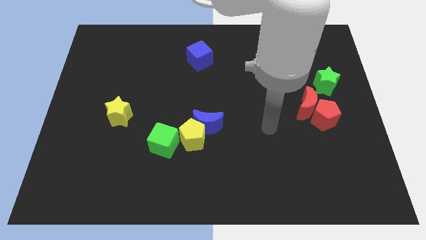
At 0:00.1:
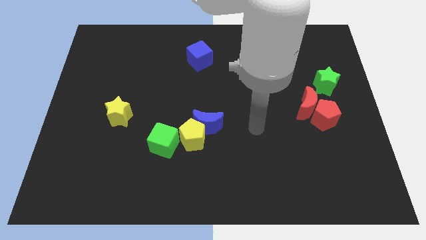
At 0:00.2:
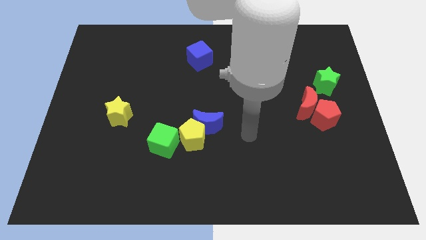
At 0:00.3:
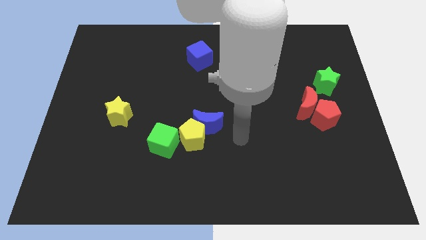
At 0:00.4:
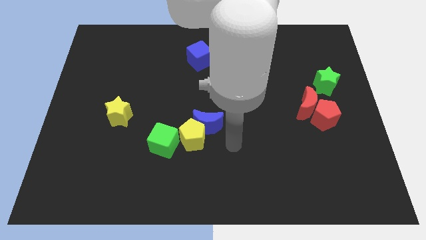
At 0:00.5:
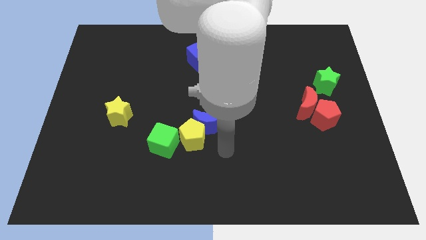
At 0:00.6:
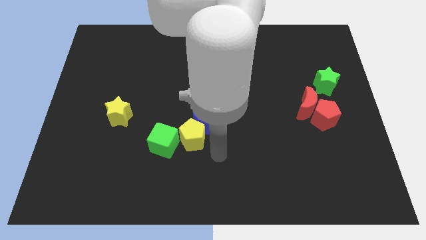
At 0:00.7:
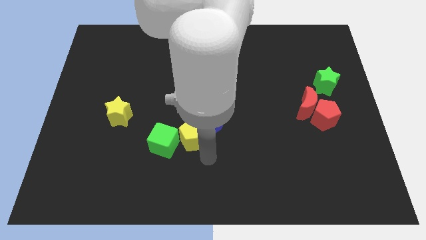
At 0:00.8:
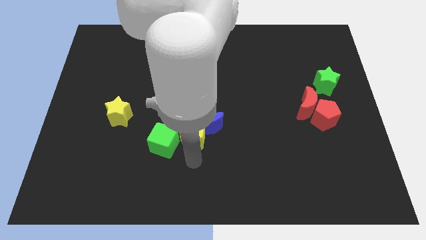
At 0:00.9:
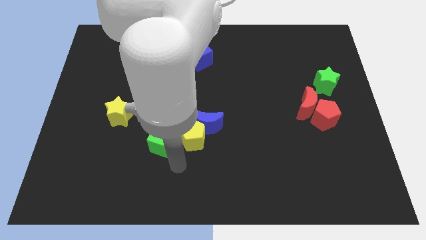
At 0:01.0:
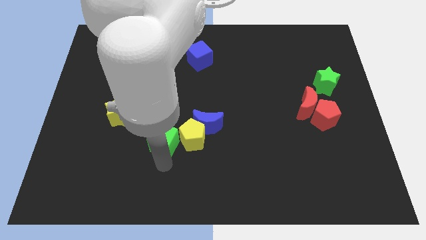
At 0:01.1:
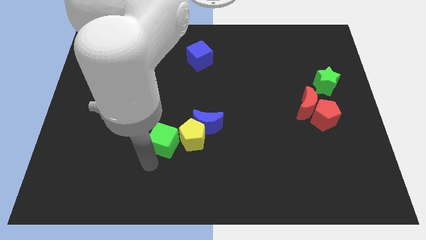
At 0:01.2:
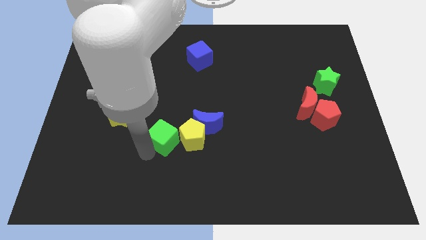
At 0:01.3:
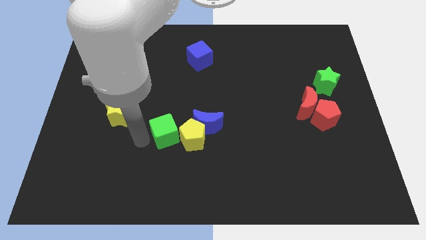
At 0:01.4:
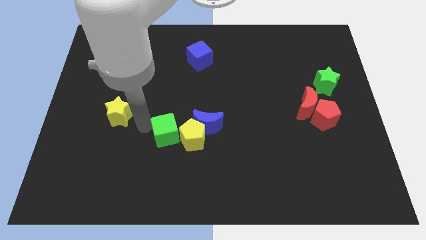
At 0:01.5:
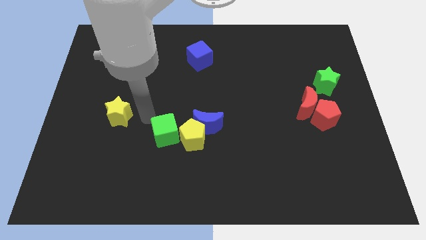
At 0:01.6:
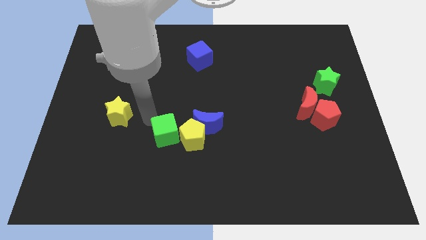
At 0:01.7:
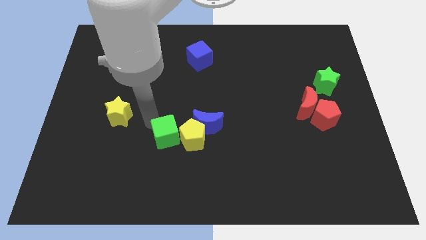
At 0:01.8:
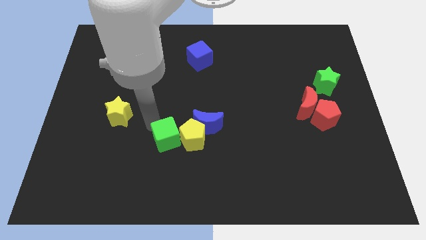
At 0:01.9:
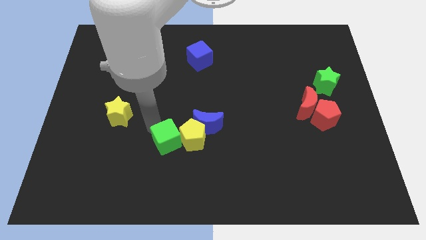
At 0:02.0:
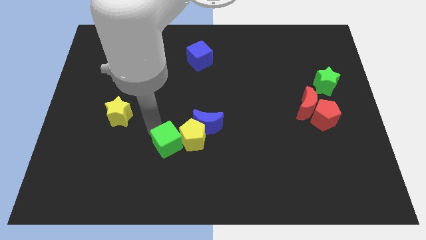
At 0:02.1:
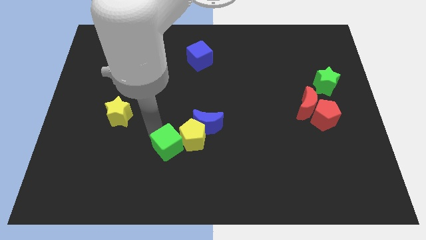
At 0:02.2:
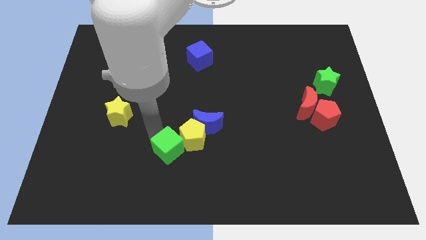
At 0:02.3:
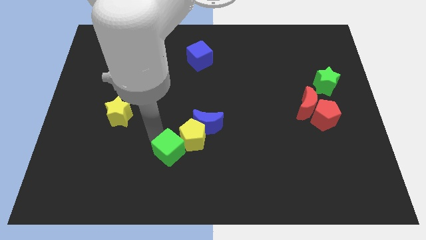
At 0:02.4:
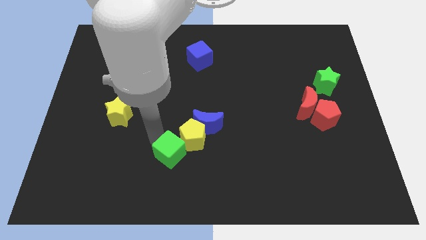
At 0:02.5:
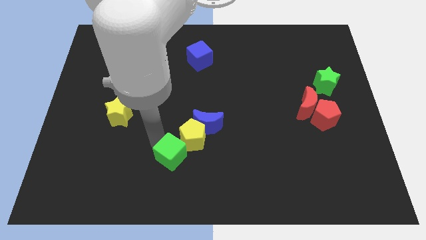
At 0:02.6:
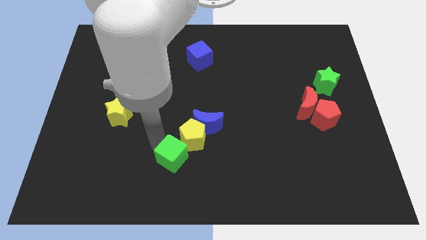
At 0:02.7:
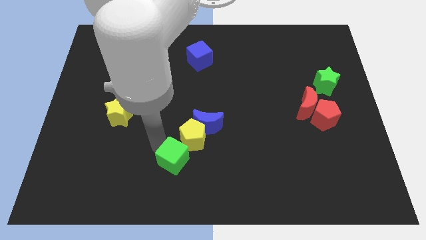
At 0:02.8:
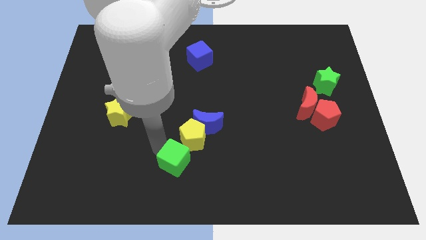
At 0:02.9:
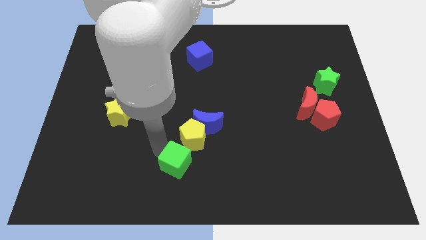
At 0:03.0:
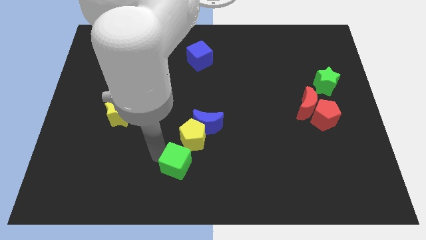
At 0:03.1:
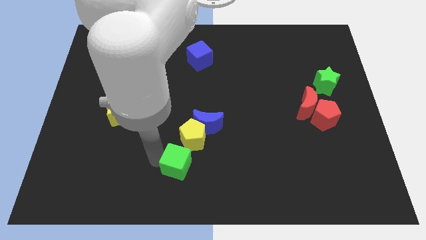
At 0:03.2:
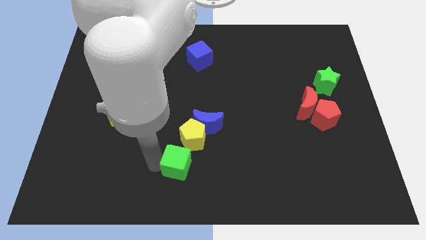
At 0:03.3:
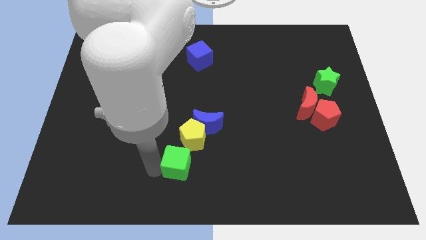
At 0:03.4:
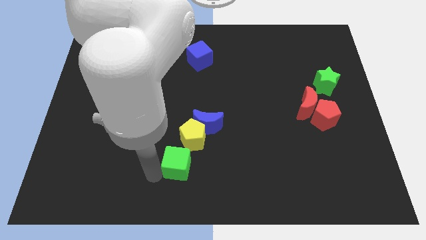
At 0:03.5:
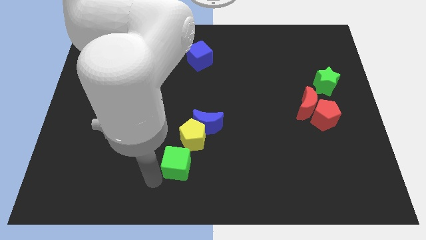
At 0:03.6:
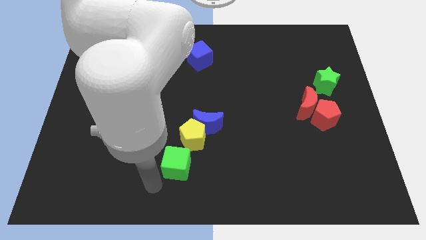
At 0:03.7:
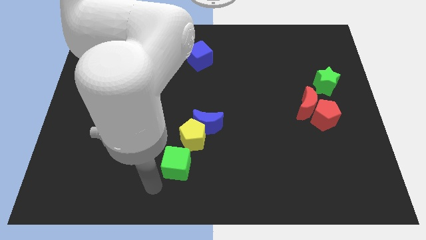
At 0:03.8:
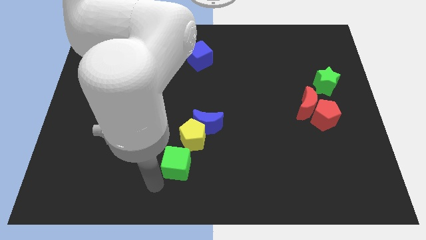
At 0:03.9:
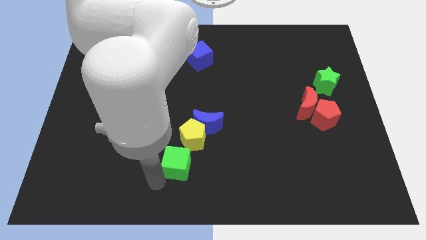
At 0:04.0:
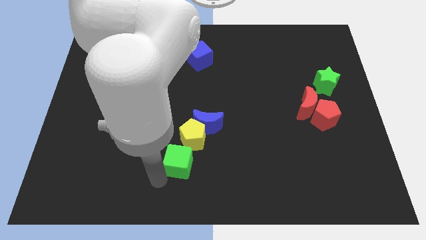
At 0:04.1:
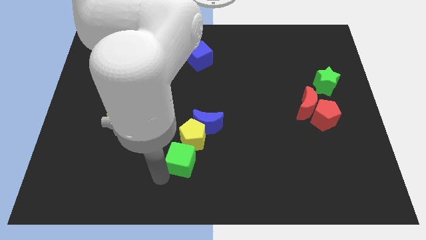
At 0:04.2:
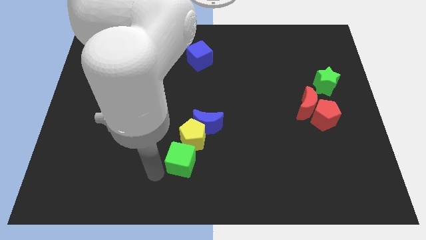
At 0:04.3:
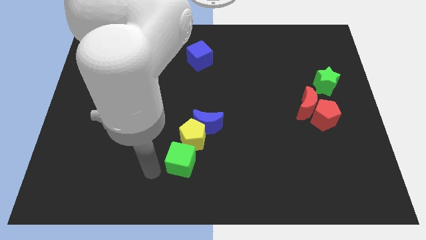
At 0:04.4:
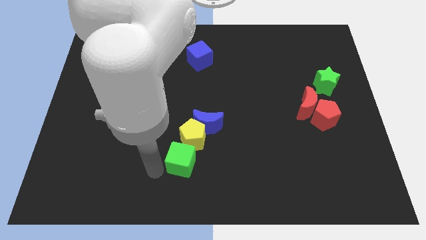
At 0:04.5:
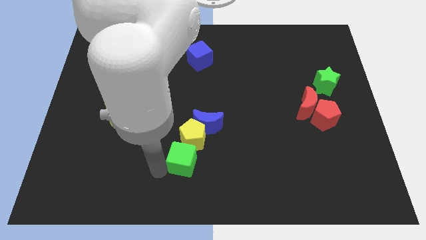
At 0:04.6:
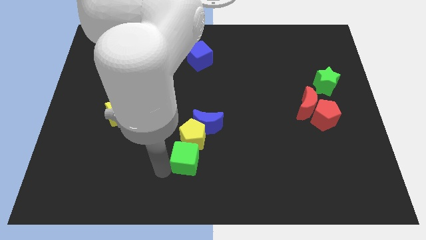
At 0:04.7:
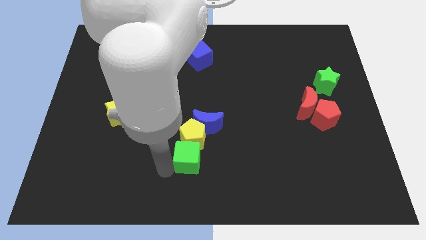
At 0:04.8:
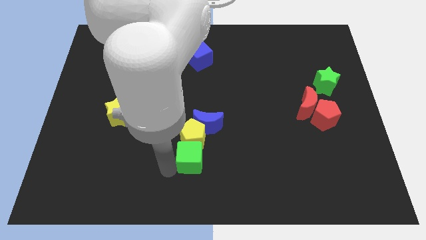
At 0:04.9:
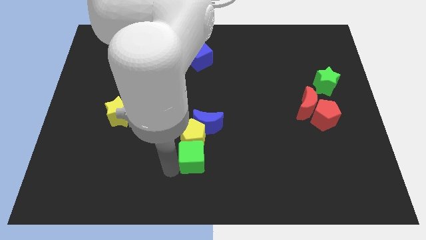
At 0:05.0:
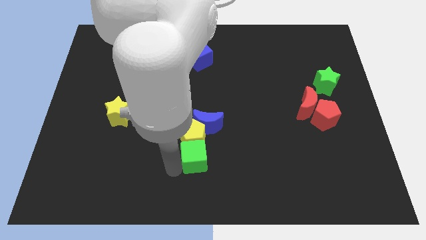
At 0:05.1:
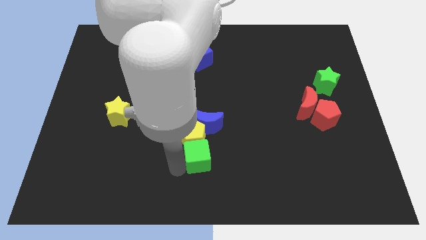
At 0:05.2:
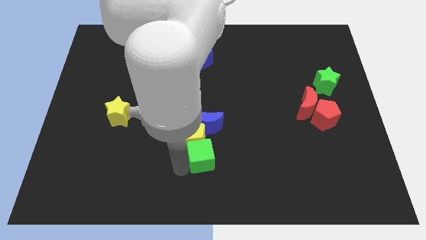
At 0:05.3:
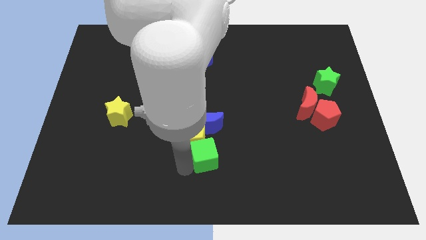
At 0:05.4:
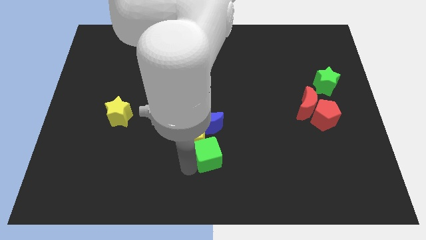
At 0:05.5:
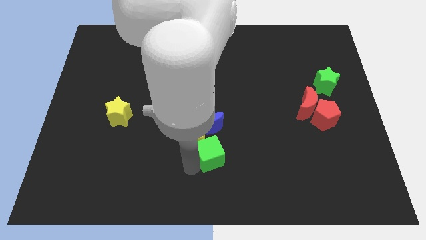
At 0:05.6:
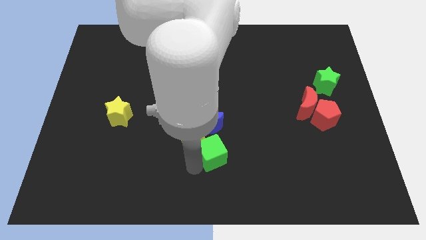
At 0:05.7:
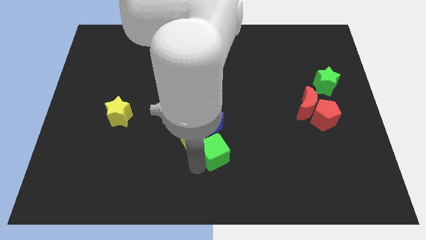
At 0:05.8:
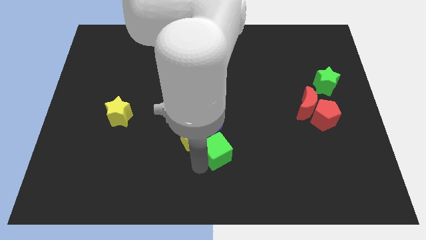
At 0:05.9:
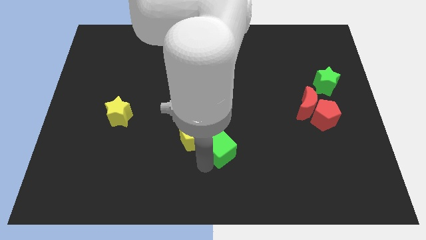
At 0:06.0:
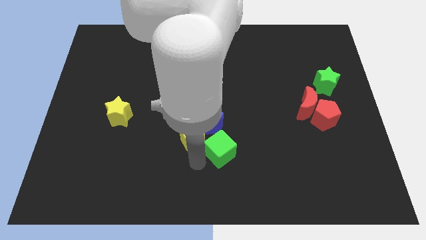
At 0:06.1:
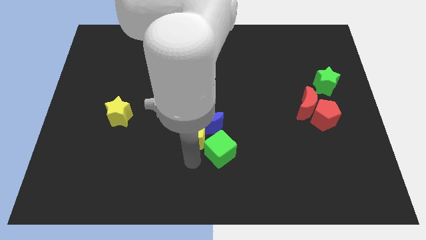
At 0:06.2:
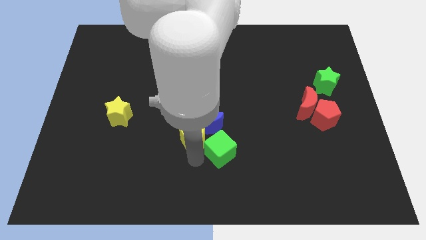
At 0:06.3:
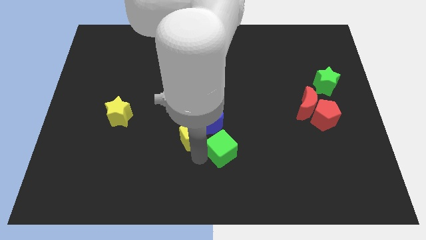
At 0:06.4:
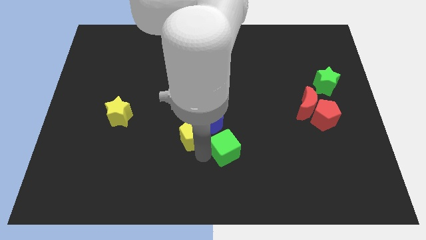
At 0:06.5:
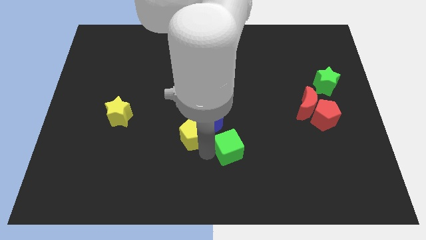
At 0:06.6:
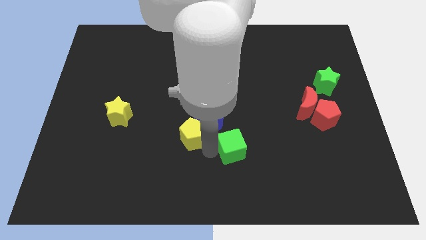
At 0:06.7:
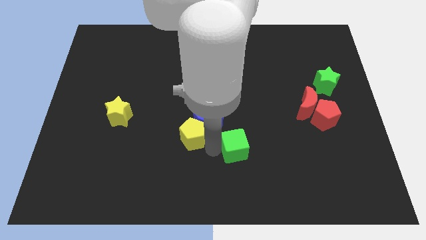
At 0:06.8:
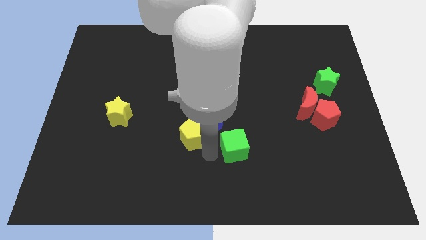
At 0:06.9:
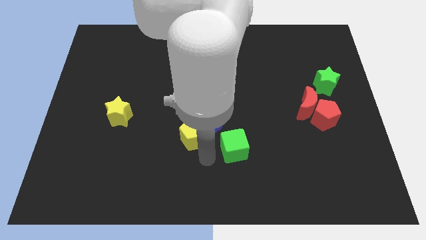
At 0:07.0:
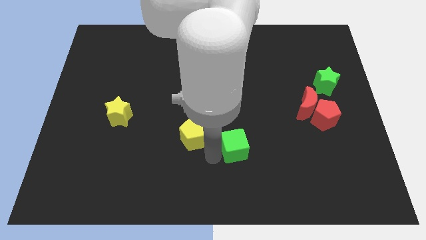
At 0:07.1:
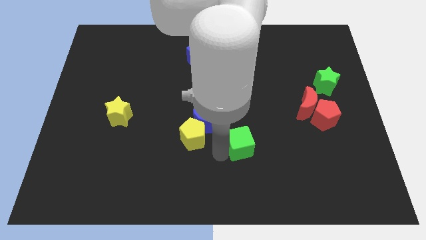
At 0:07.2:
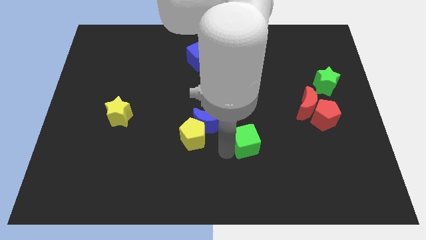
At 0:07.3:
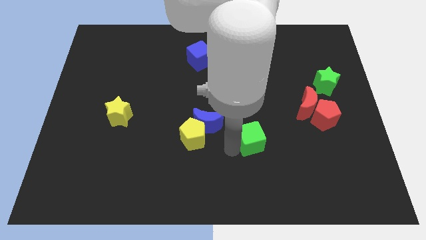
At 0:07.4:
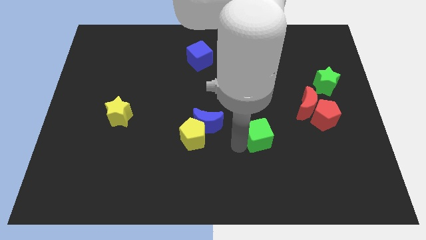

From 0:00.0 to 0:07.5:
move the green cube to the right

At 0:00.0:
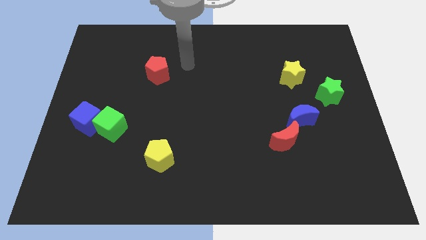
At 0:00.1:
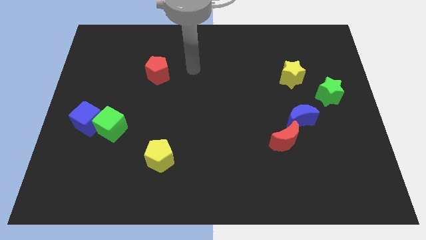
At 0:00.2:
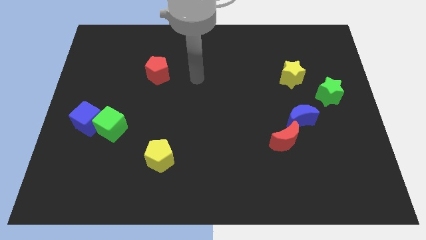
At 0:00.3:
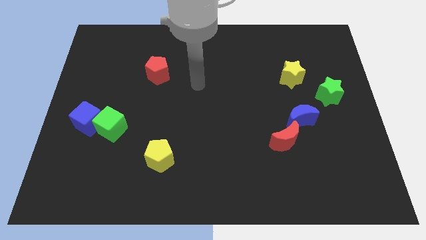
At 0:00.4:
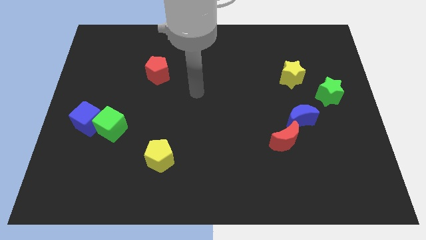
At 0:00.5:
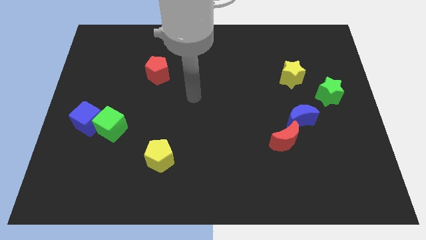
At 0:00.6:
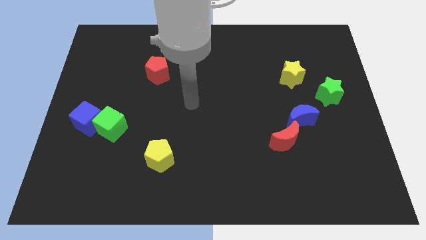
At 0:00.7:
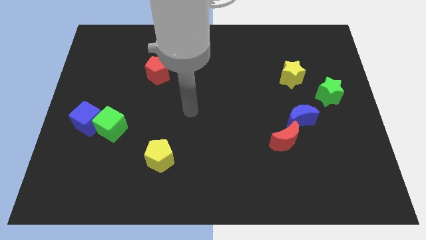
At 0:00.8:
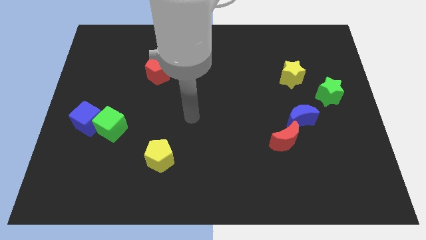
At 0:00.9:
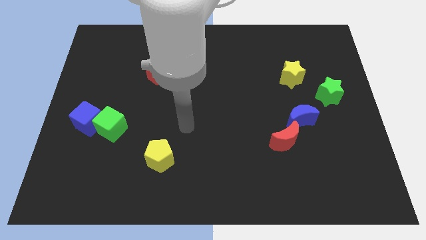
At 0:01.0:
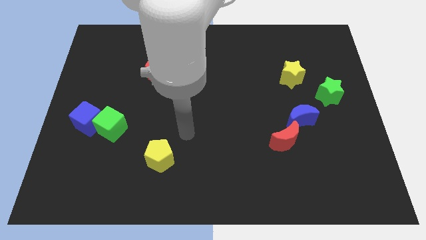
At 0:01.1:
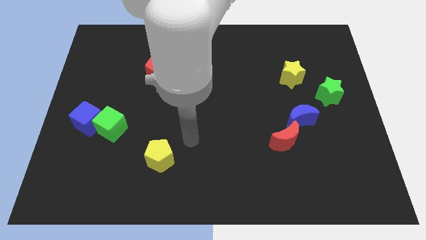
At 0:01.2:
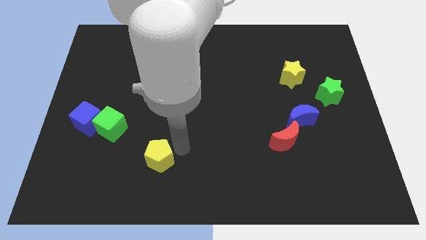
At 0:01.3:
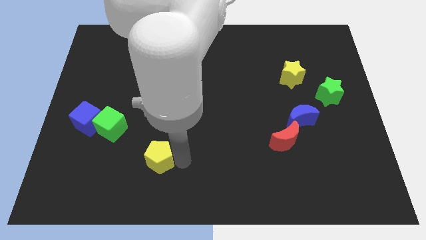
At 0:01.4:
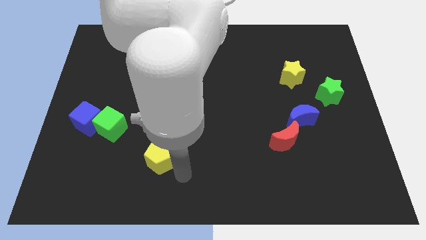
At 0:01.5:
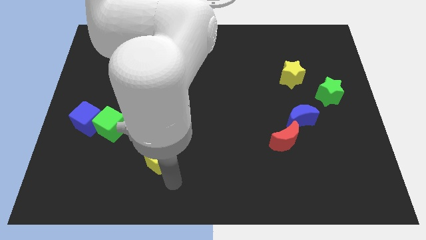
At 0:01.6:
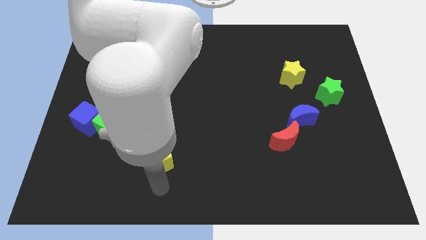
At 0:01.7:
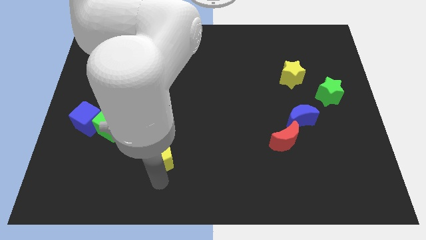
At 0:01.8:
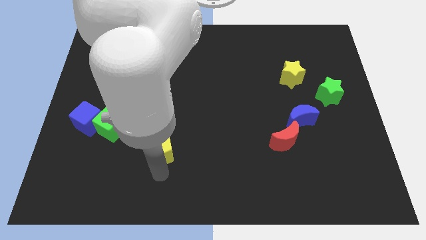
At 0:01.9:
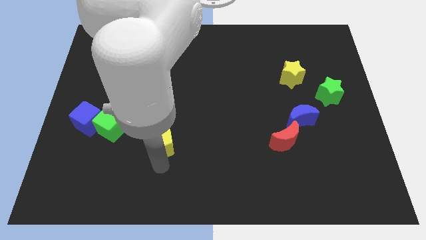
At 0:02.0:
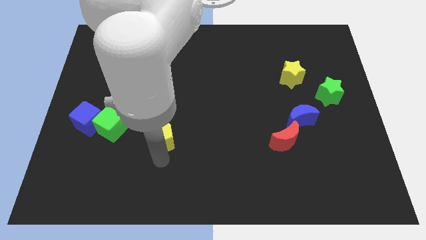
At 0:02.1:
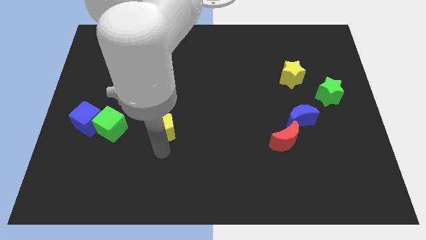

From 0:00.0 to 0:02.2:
slightly move the yellow pentagon upwards
